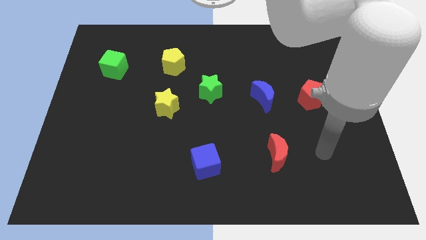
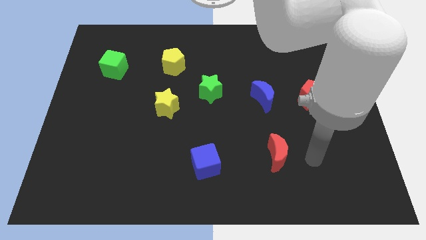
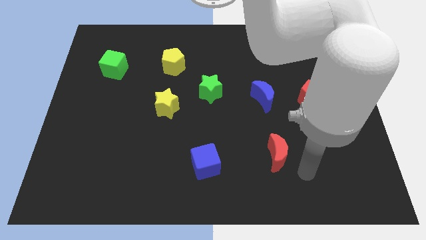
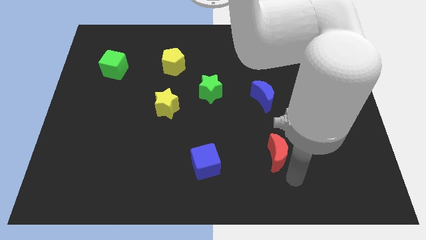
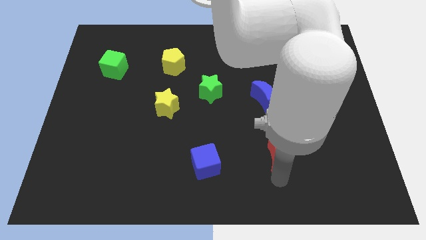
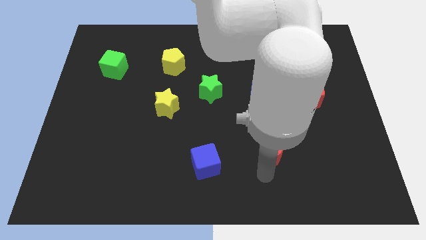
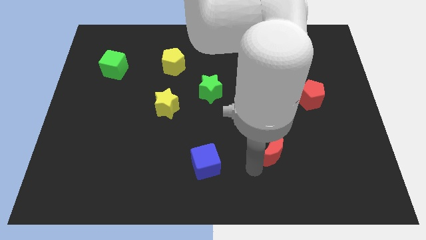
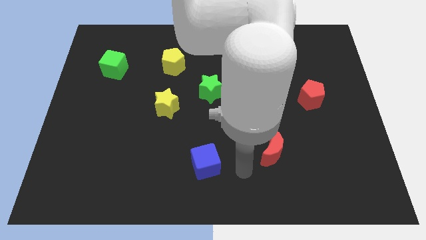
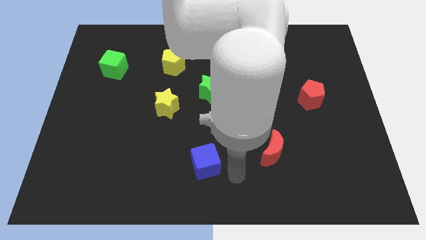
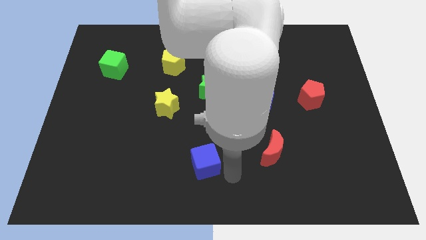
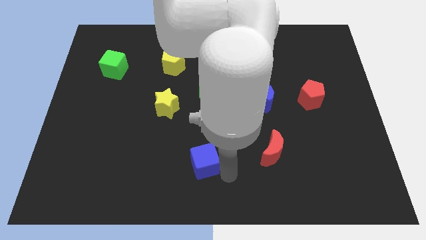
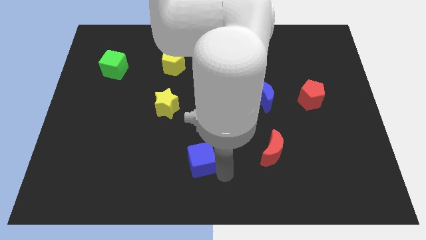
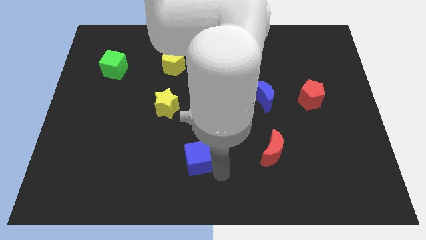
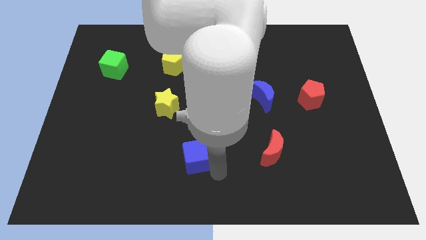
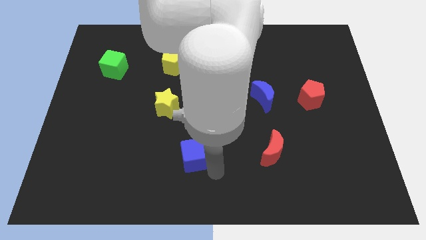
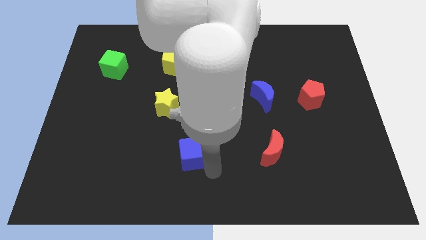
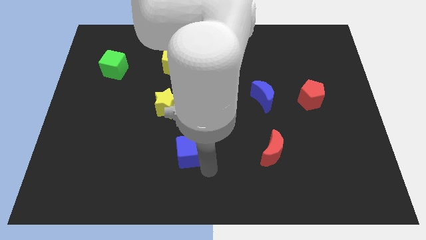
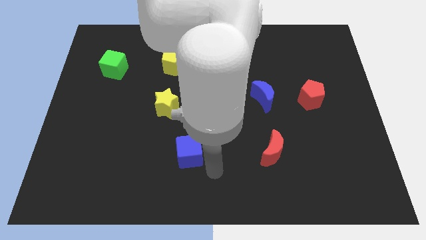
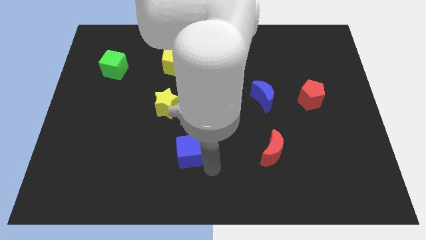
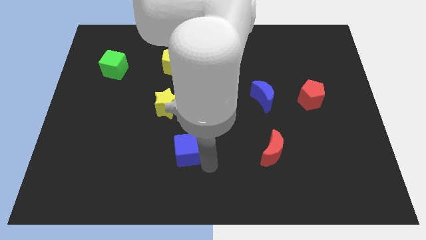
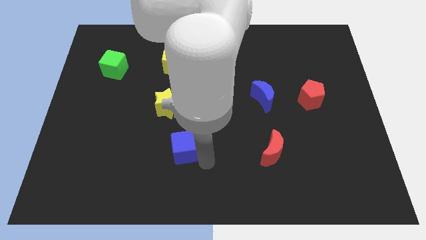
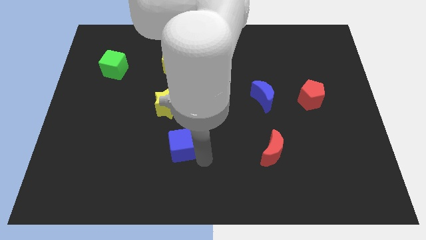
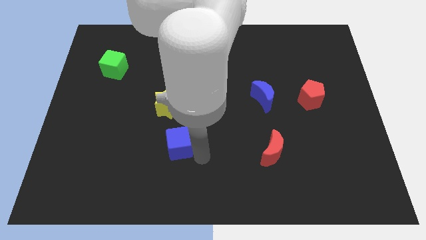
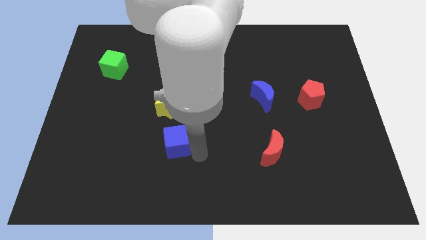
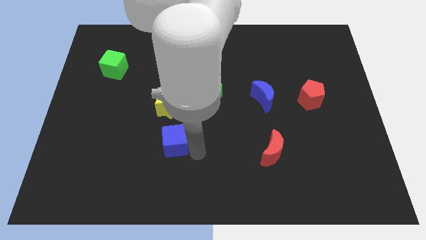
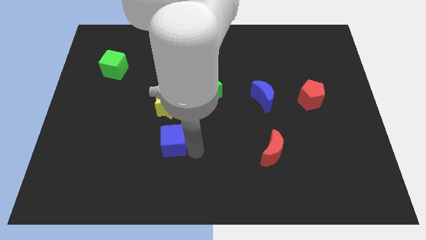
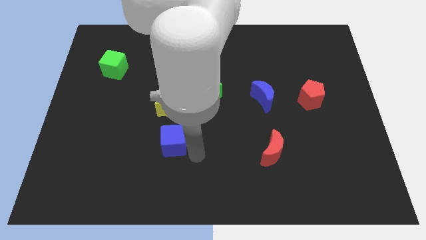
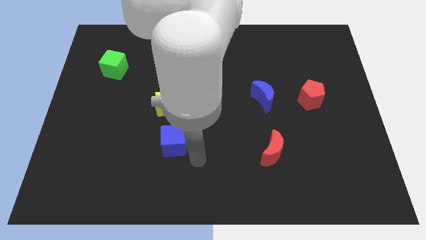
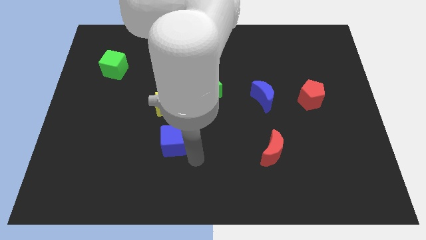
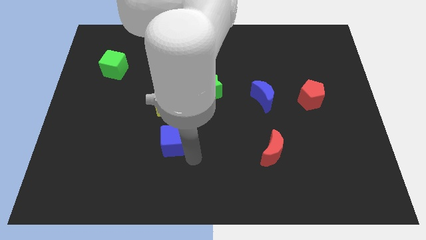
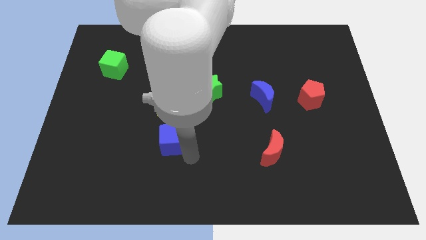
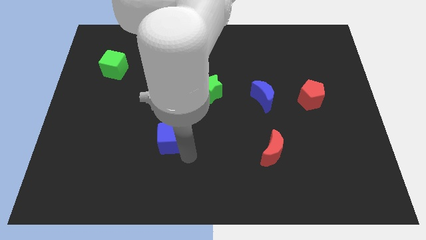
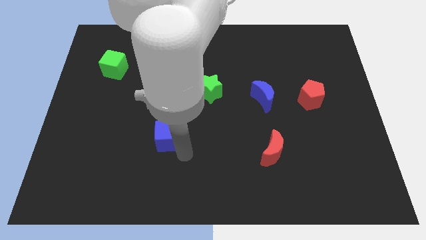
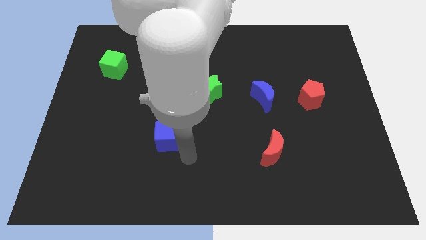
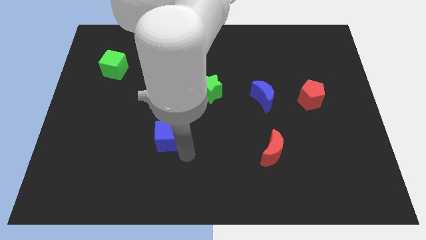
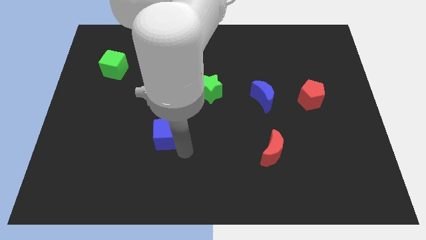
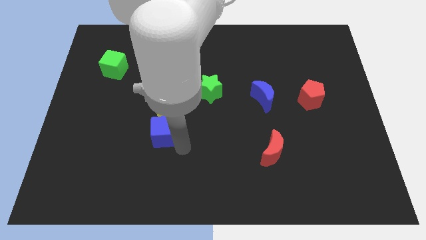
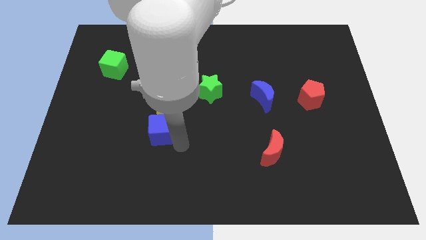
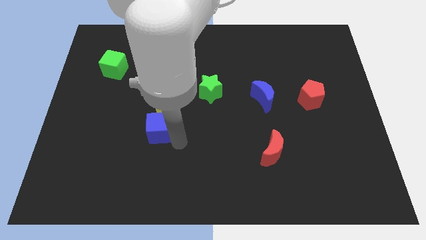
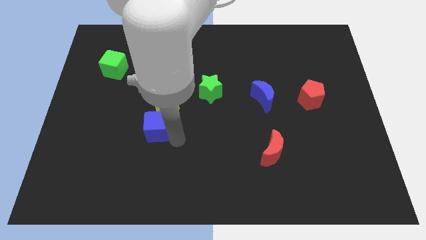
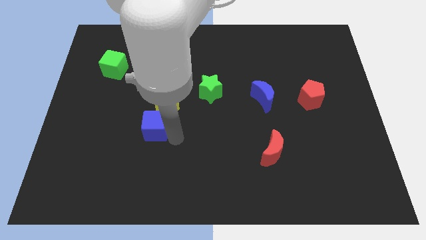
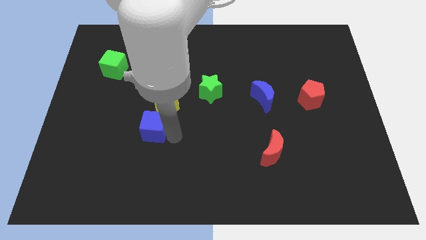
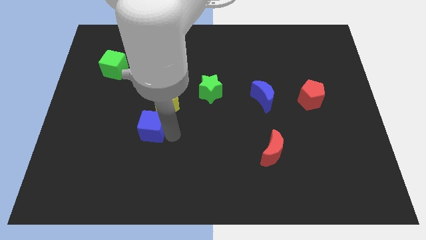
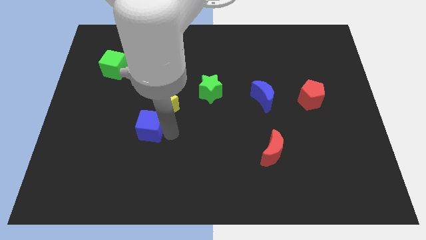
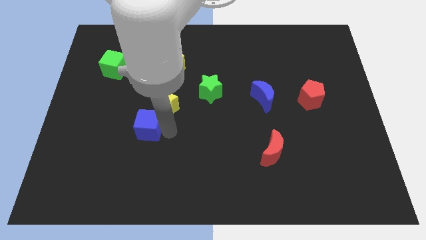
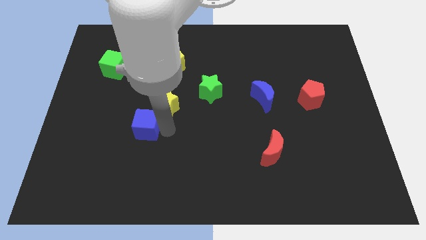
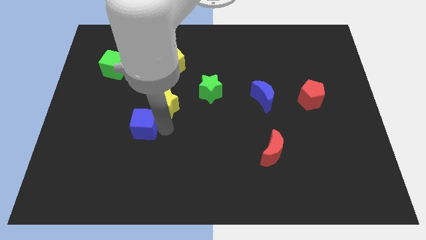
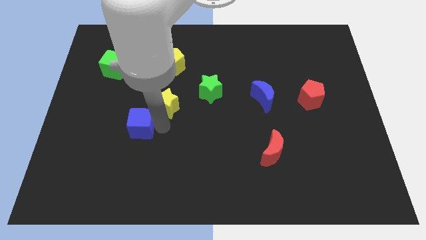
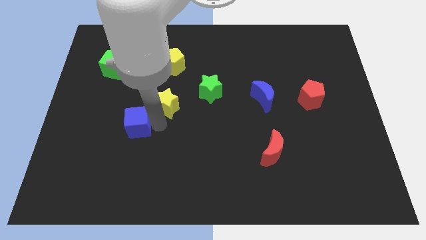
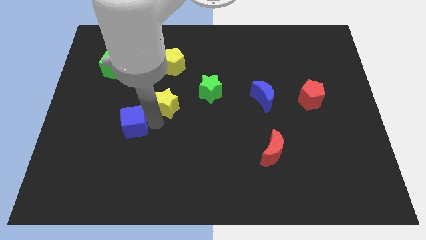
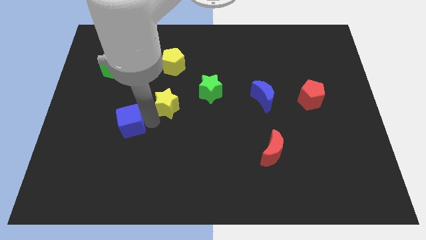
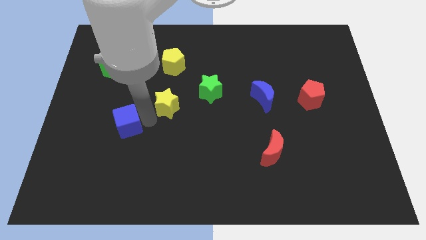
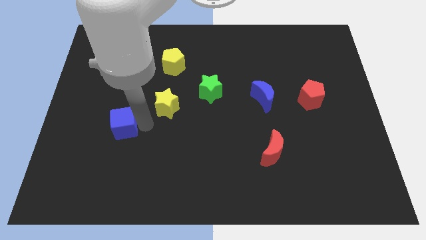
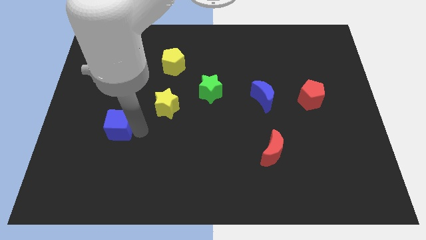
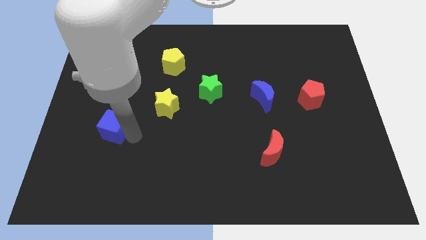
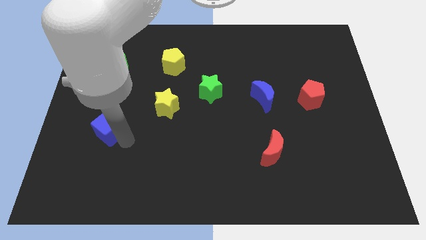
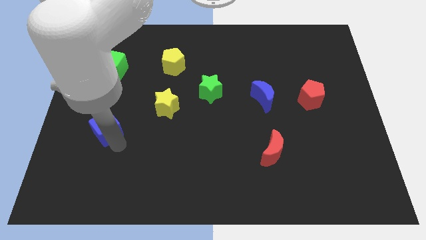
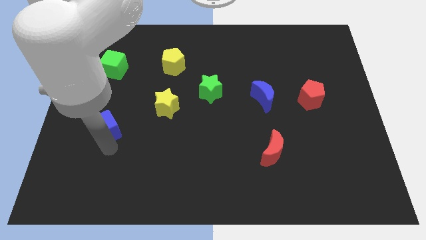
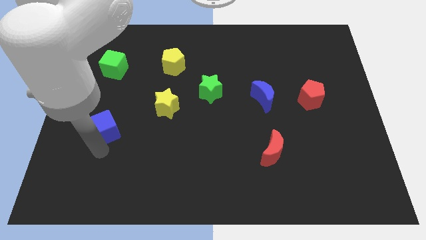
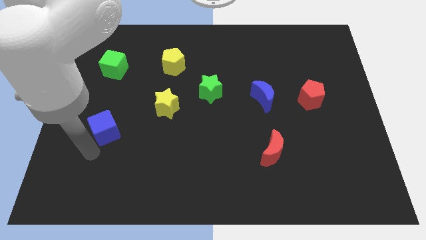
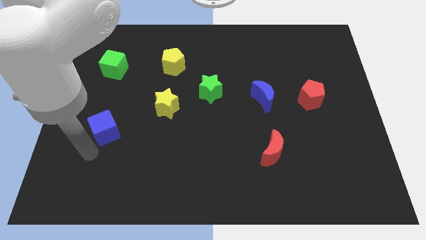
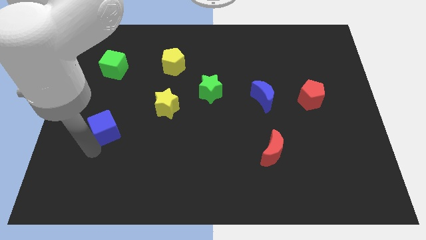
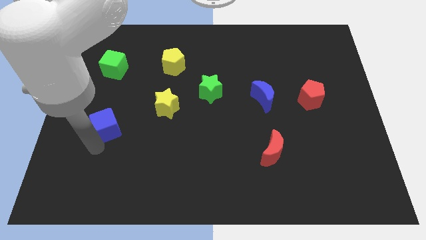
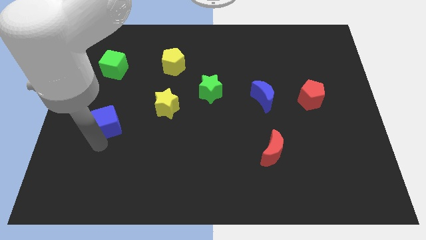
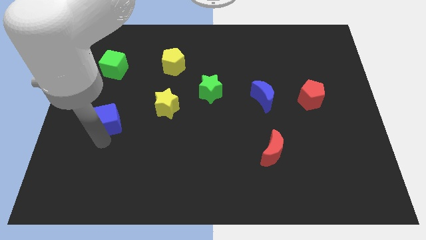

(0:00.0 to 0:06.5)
push the blue cube up and then to the left

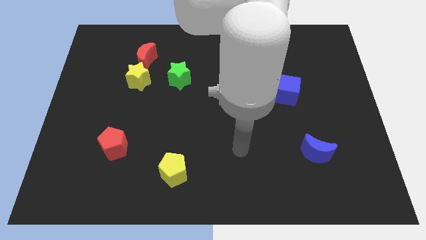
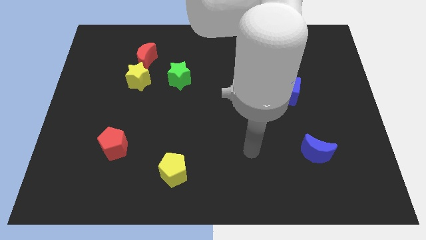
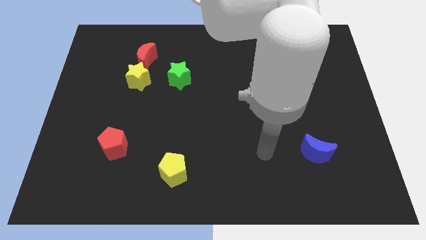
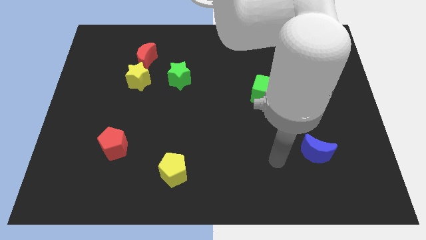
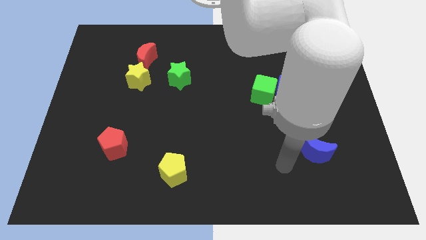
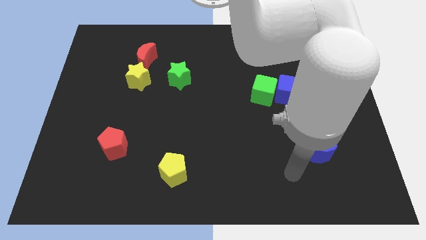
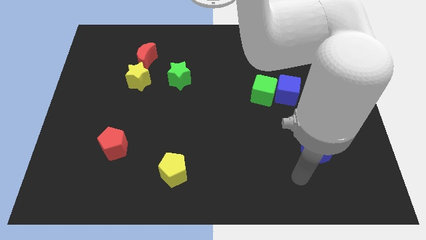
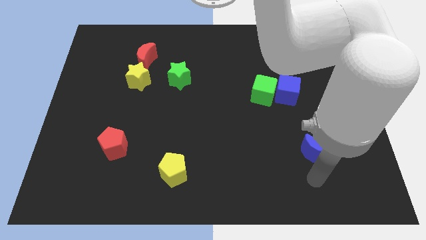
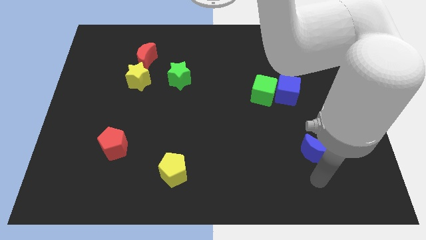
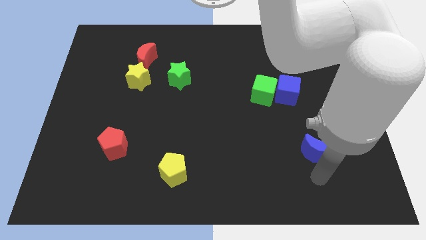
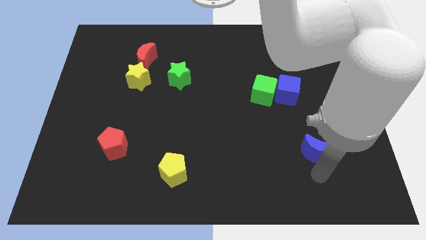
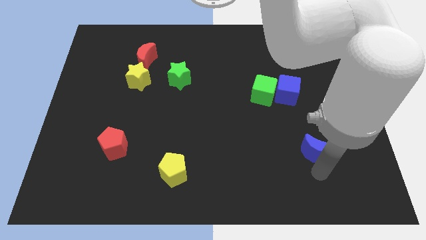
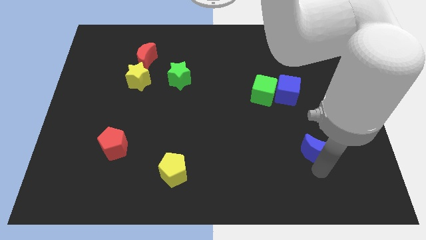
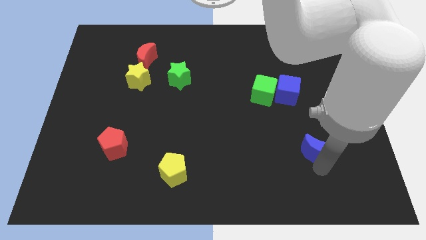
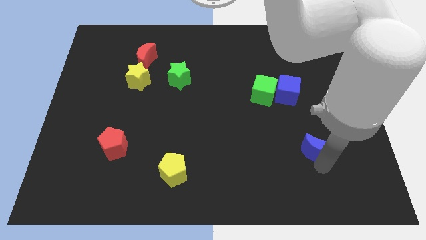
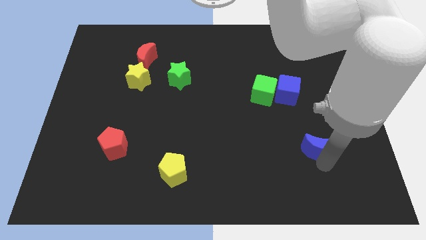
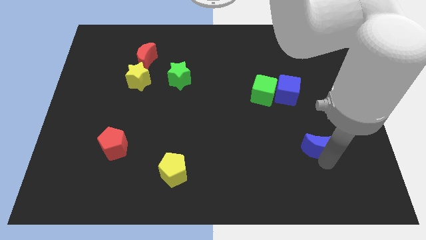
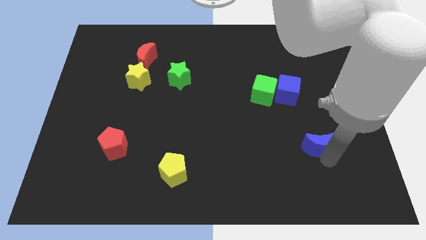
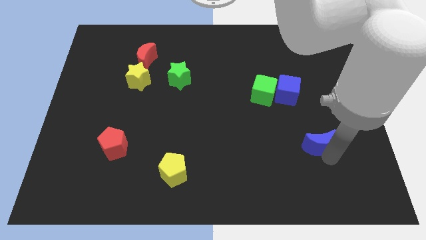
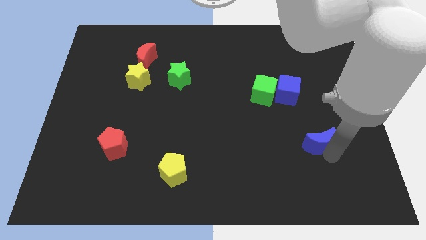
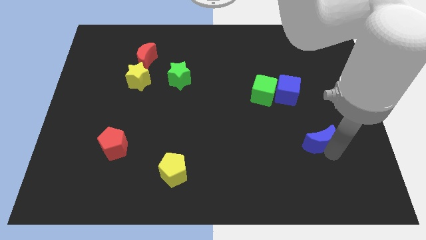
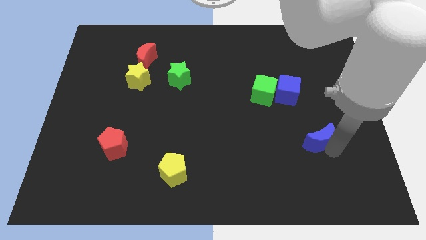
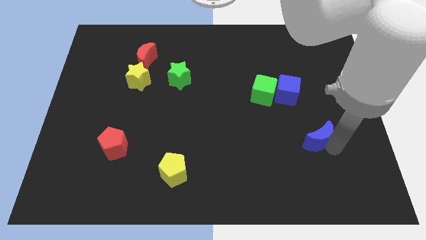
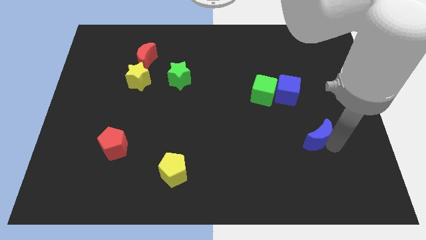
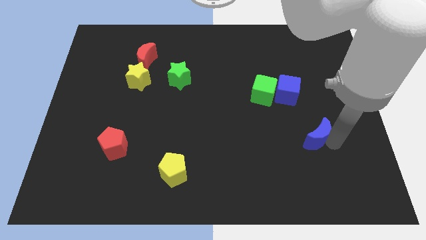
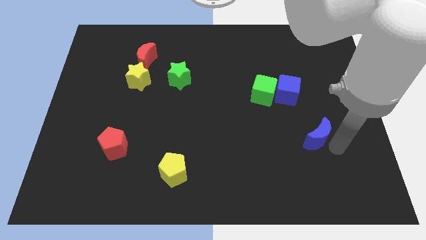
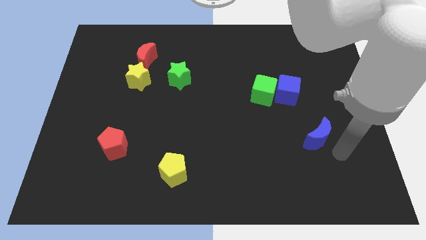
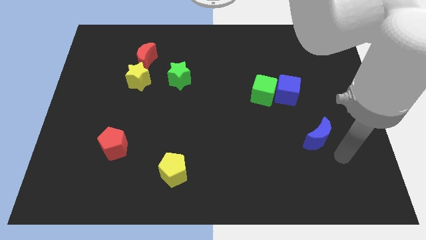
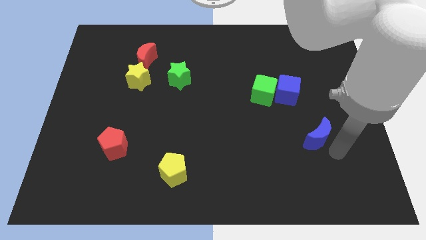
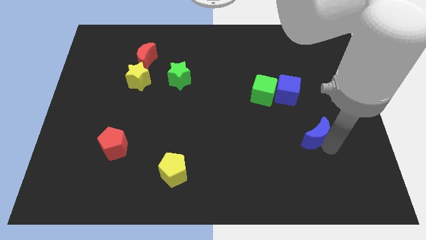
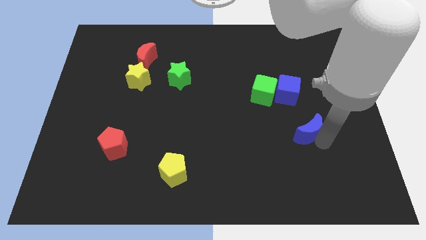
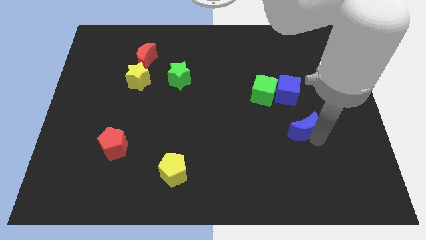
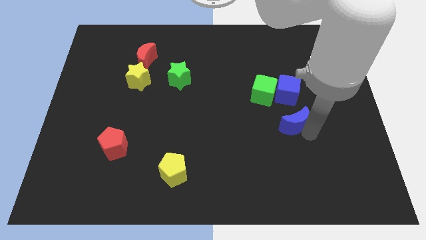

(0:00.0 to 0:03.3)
move the blue moon somewhat up and then to the left
